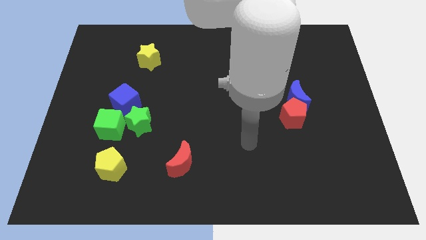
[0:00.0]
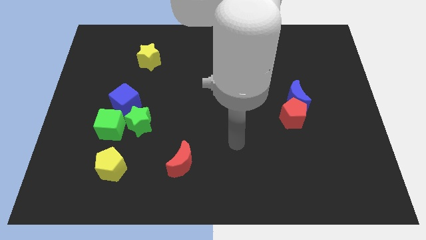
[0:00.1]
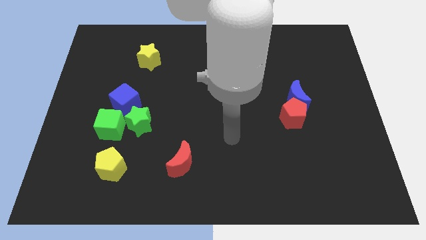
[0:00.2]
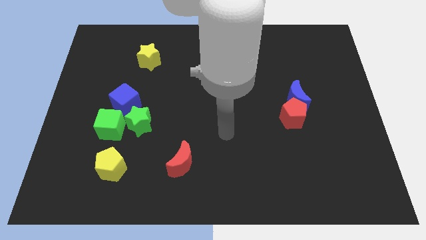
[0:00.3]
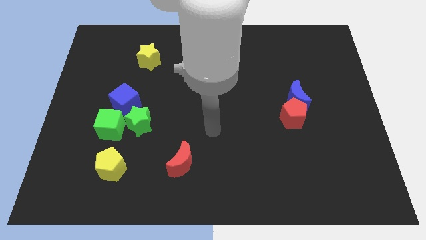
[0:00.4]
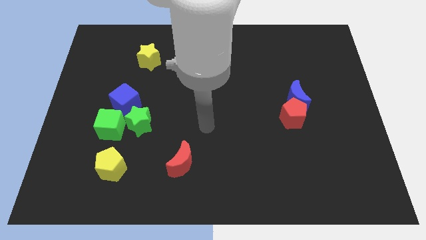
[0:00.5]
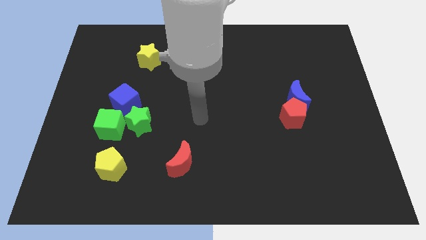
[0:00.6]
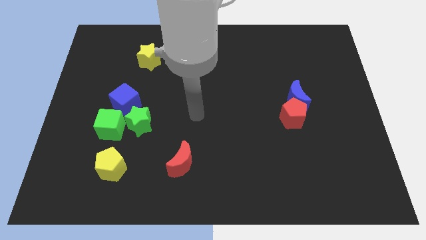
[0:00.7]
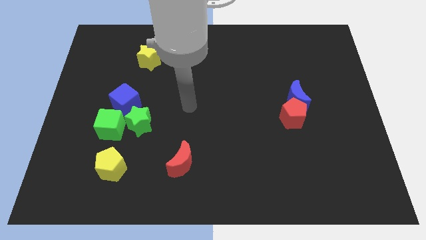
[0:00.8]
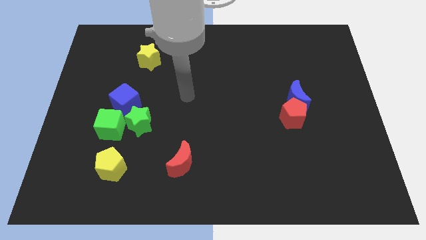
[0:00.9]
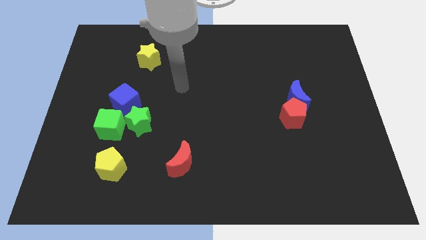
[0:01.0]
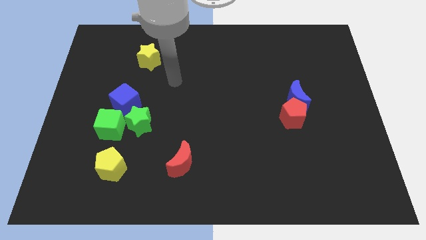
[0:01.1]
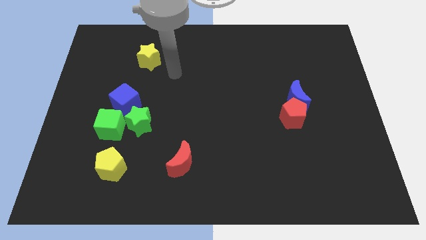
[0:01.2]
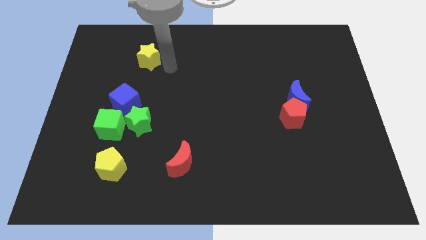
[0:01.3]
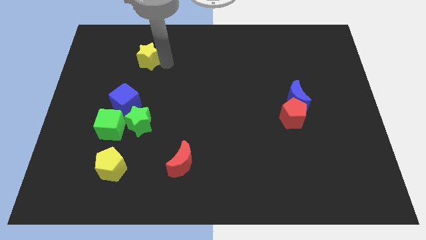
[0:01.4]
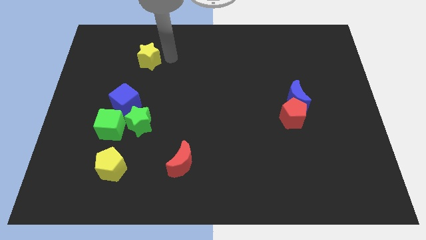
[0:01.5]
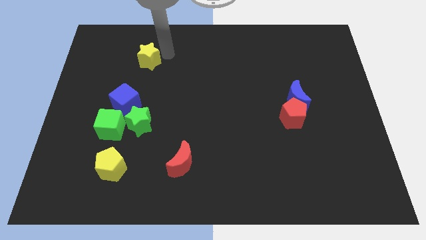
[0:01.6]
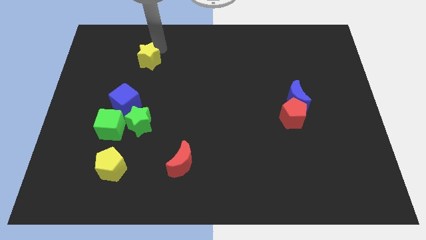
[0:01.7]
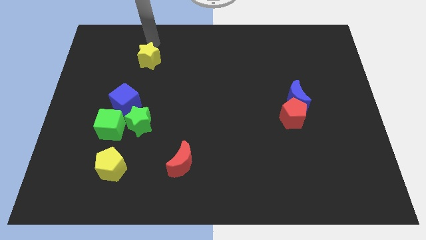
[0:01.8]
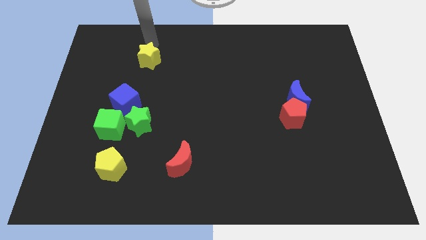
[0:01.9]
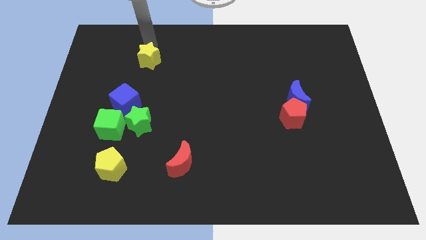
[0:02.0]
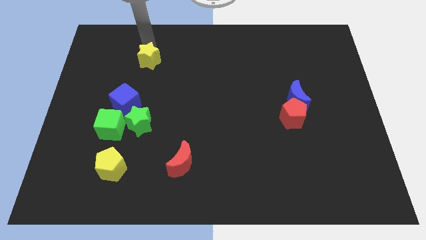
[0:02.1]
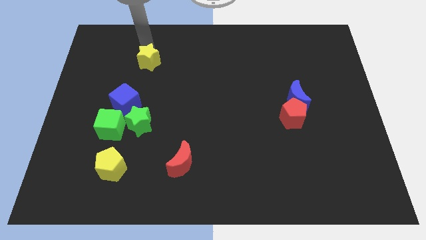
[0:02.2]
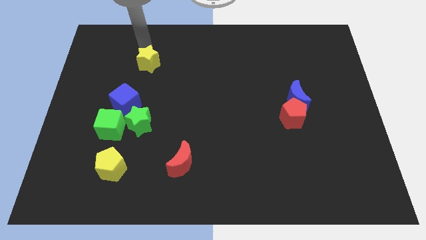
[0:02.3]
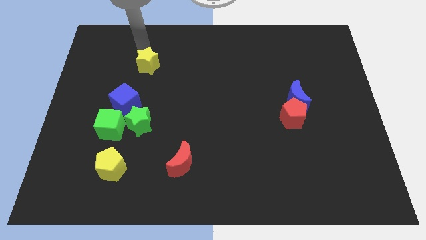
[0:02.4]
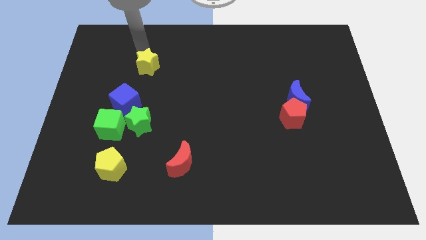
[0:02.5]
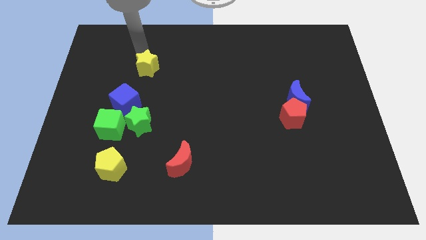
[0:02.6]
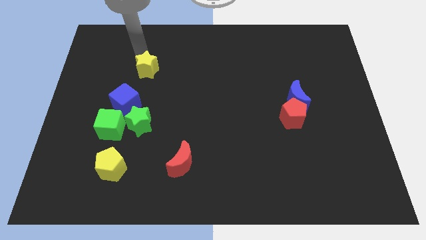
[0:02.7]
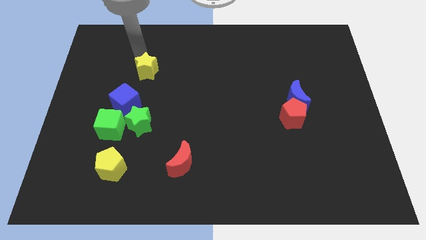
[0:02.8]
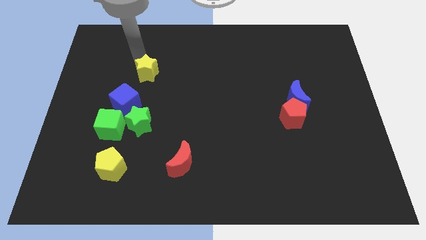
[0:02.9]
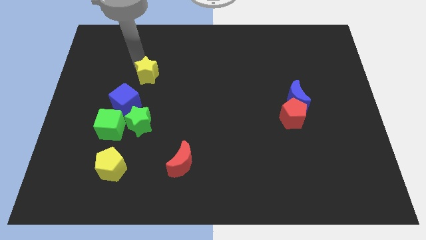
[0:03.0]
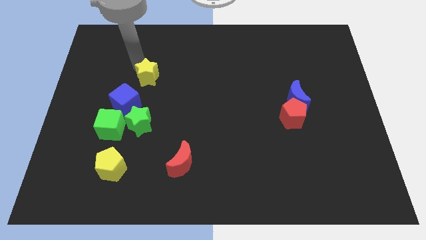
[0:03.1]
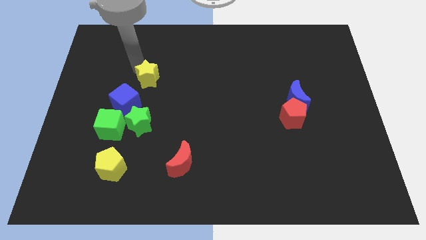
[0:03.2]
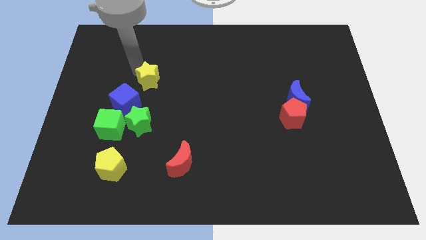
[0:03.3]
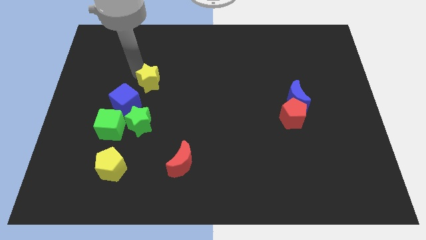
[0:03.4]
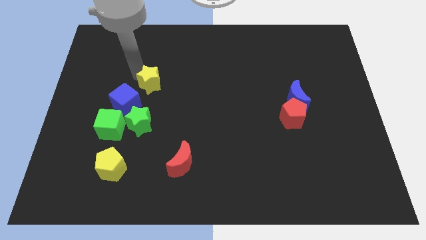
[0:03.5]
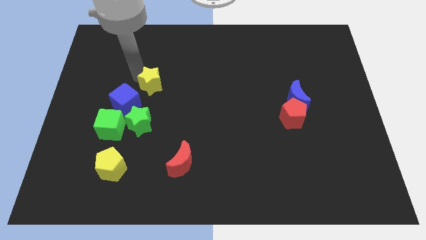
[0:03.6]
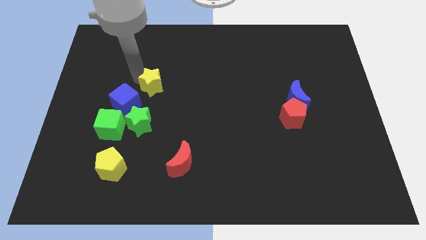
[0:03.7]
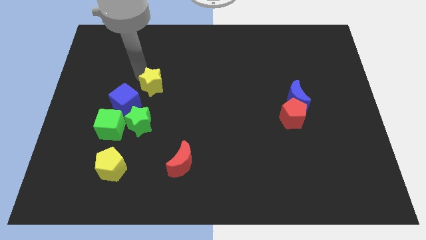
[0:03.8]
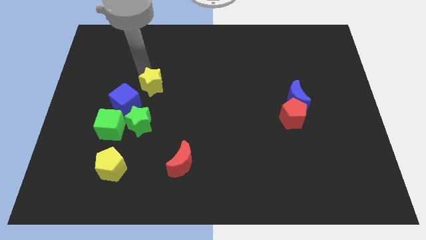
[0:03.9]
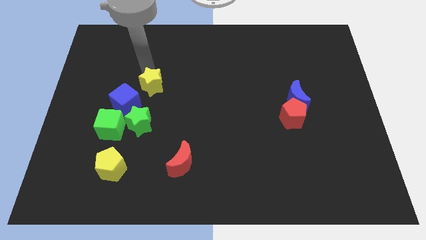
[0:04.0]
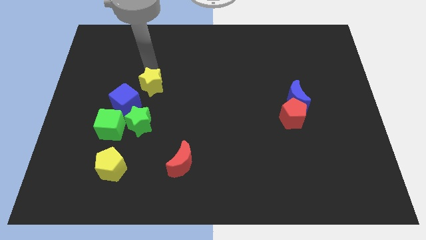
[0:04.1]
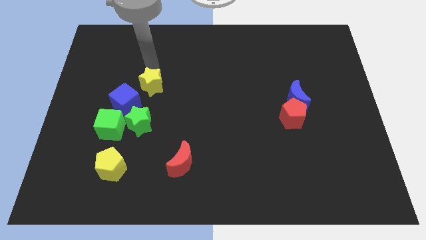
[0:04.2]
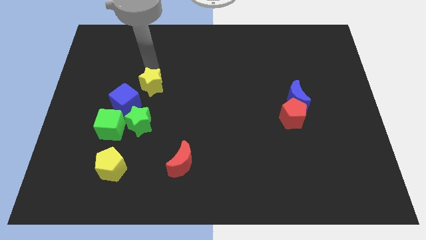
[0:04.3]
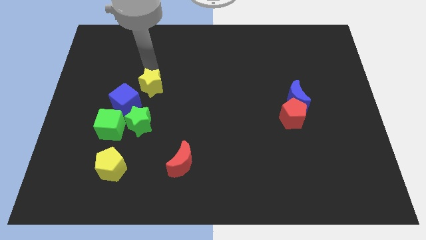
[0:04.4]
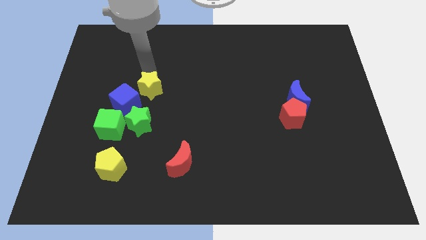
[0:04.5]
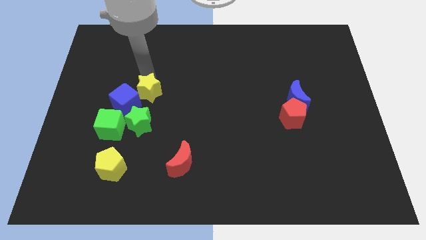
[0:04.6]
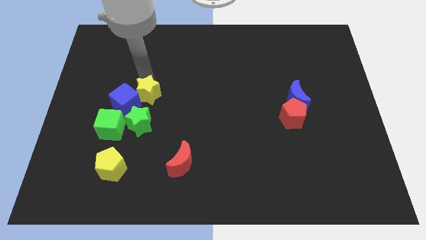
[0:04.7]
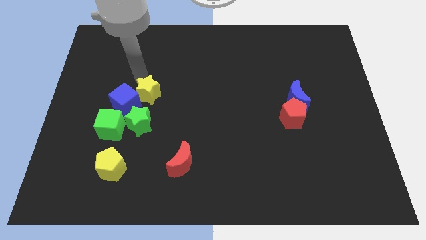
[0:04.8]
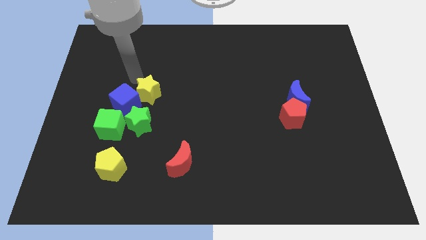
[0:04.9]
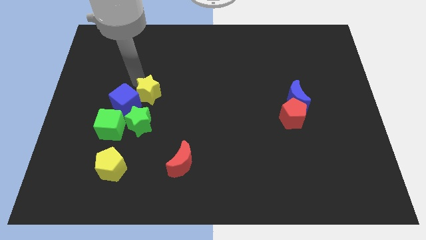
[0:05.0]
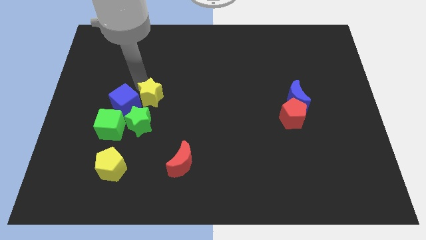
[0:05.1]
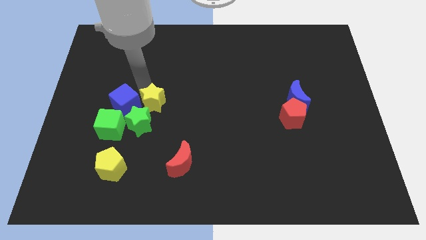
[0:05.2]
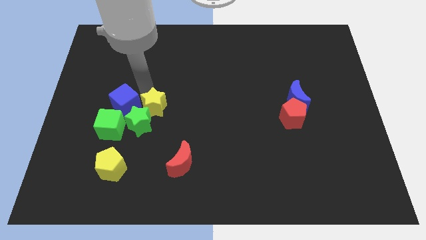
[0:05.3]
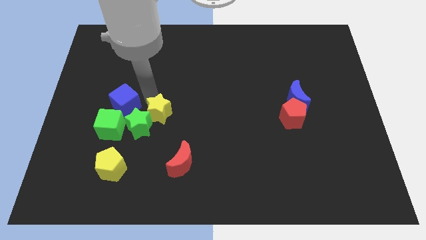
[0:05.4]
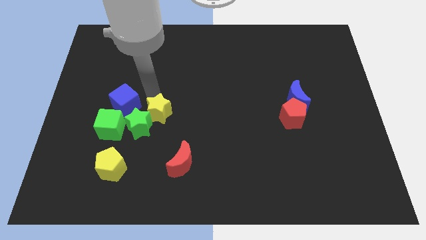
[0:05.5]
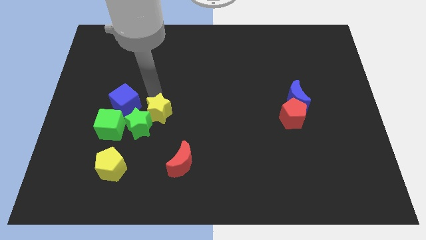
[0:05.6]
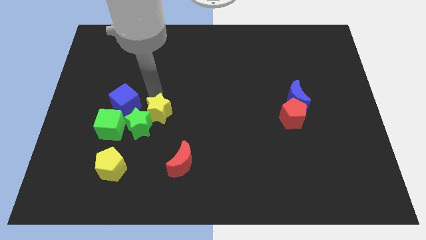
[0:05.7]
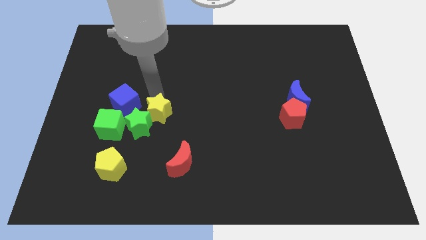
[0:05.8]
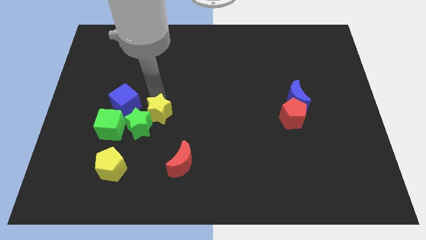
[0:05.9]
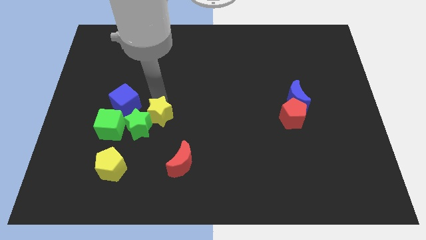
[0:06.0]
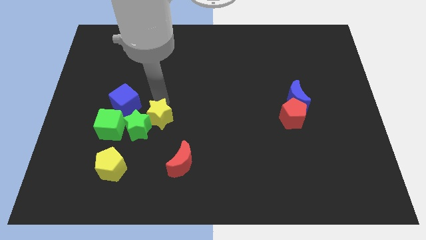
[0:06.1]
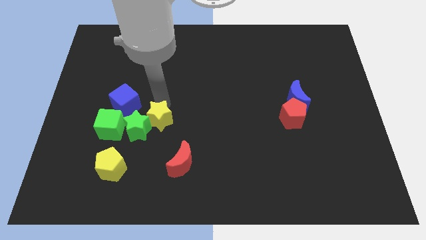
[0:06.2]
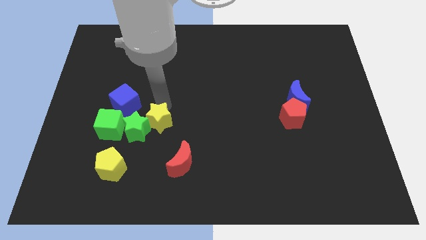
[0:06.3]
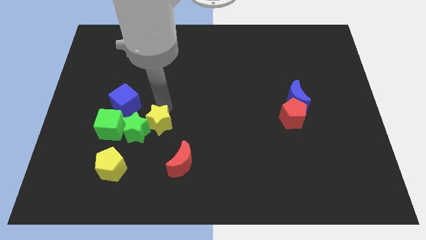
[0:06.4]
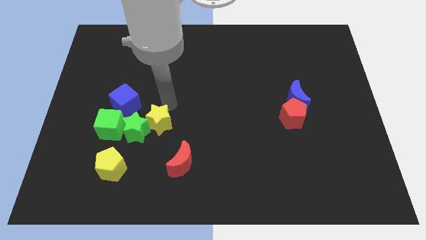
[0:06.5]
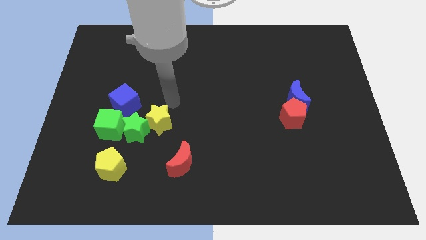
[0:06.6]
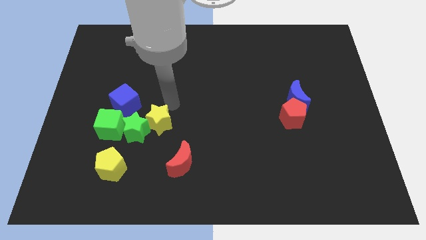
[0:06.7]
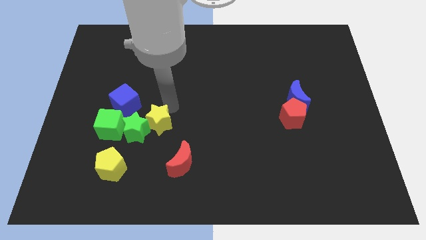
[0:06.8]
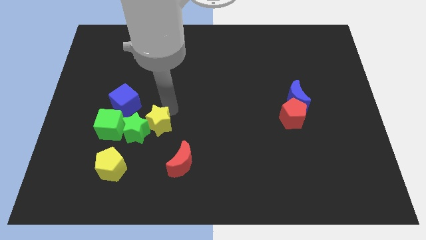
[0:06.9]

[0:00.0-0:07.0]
push the yellow star downwards

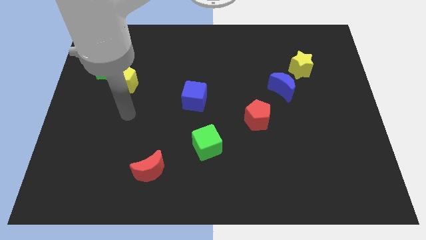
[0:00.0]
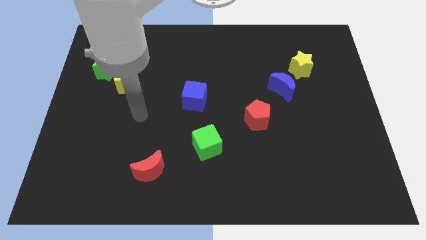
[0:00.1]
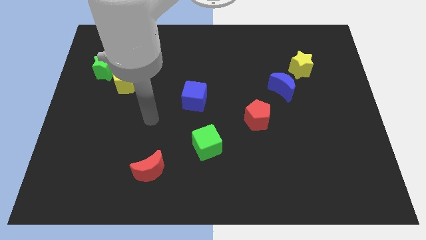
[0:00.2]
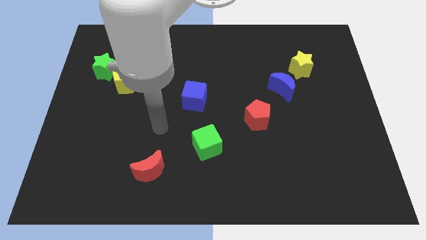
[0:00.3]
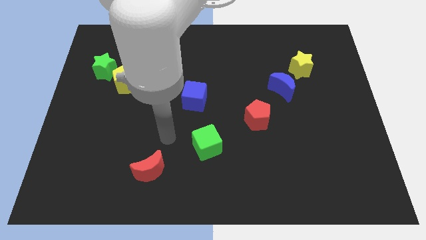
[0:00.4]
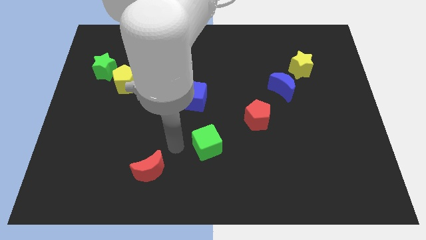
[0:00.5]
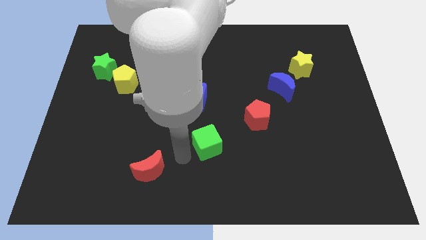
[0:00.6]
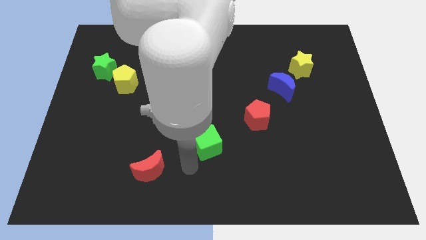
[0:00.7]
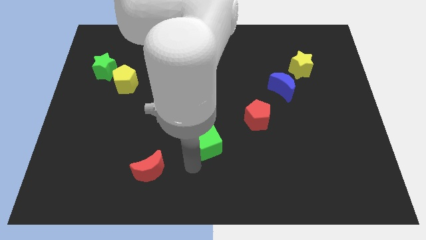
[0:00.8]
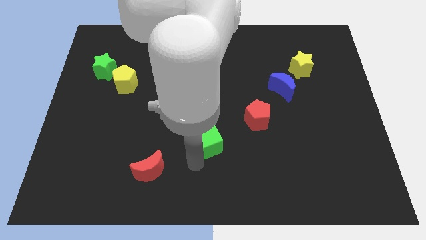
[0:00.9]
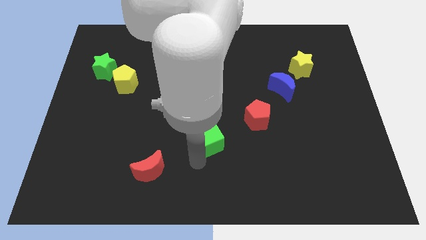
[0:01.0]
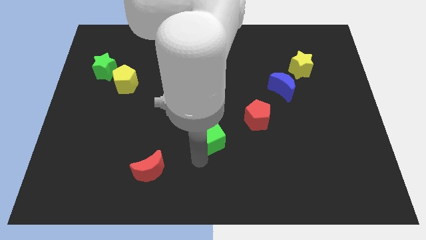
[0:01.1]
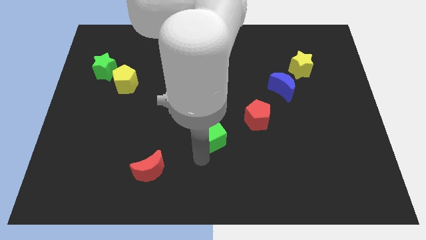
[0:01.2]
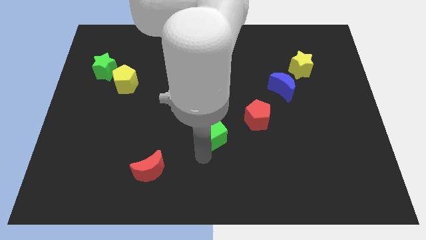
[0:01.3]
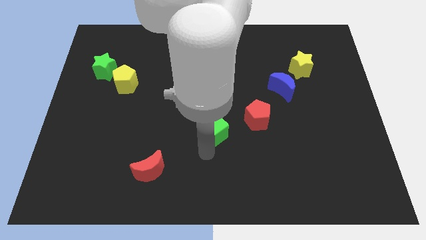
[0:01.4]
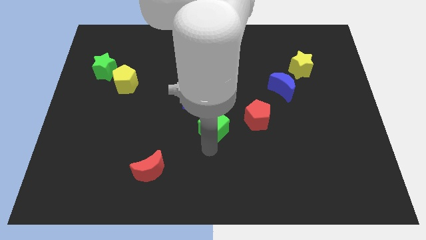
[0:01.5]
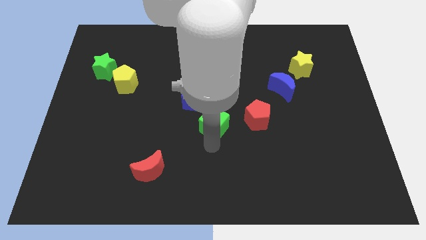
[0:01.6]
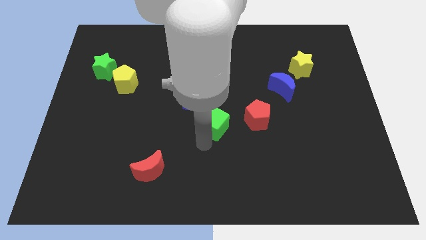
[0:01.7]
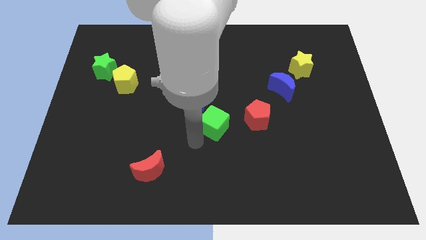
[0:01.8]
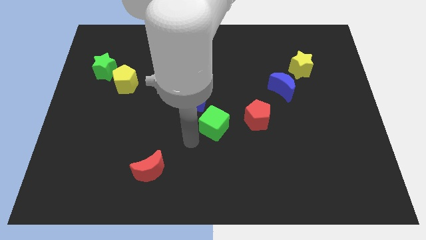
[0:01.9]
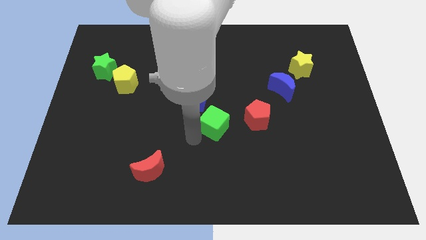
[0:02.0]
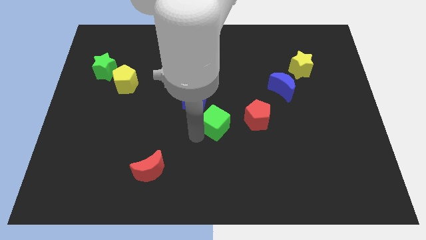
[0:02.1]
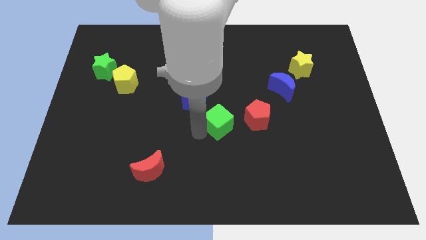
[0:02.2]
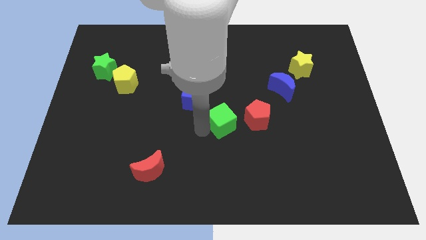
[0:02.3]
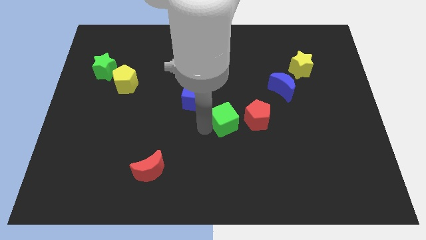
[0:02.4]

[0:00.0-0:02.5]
slightly slide the green cube upwards and then to the right
